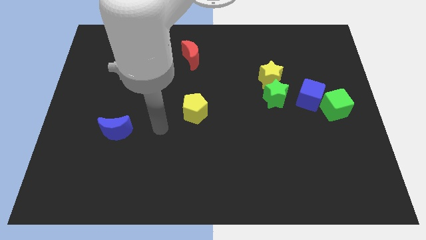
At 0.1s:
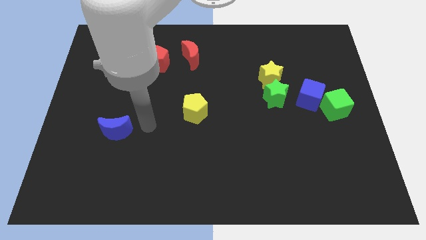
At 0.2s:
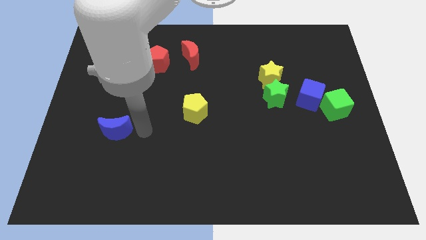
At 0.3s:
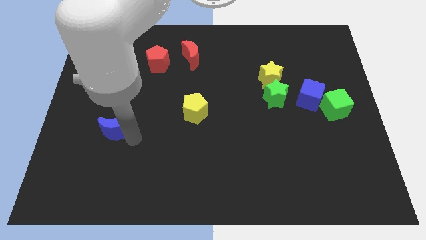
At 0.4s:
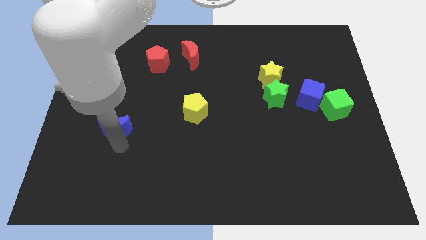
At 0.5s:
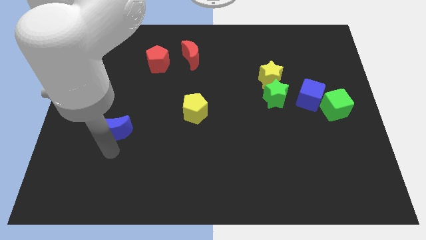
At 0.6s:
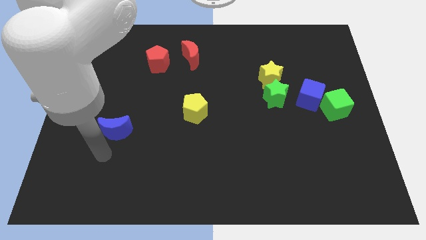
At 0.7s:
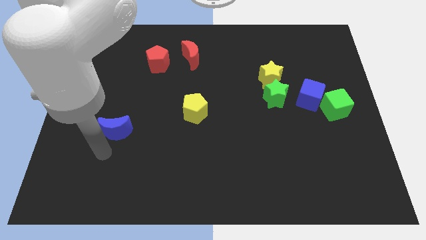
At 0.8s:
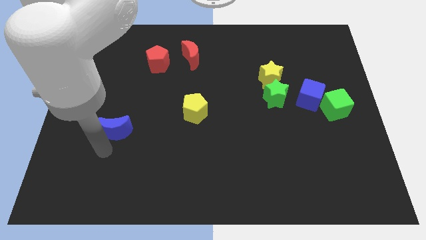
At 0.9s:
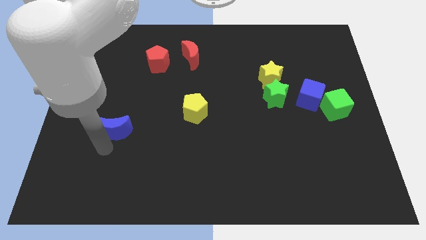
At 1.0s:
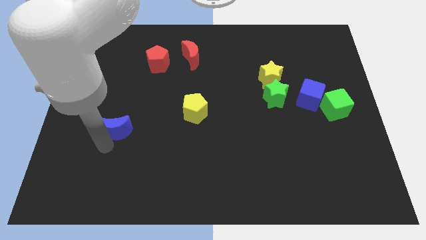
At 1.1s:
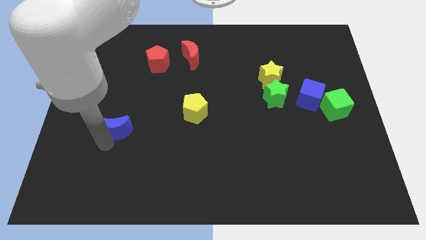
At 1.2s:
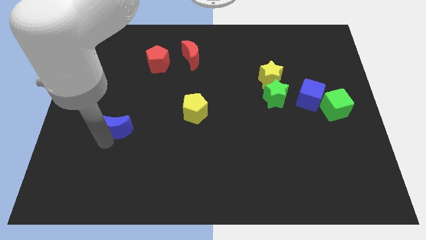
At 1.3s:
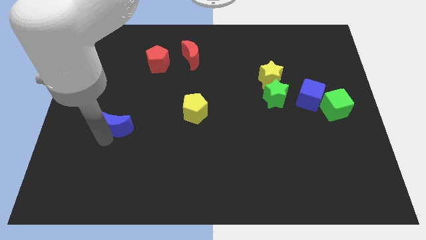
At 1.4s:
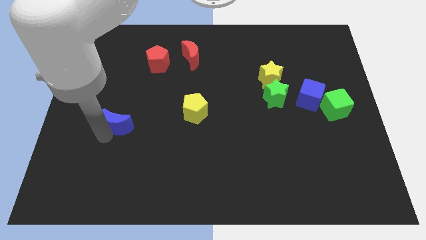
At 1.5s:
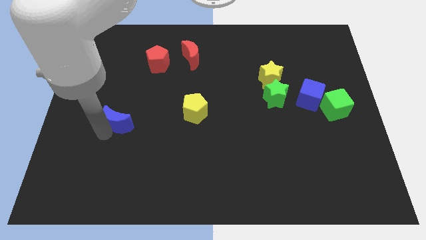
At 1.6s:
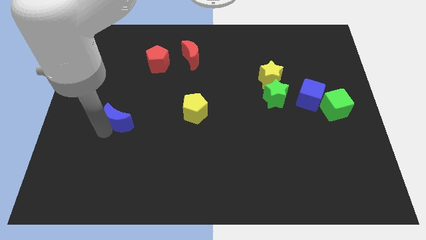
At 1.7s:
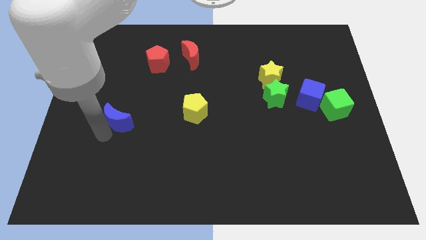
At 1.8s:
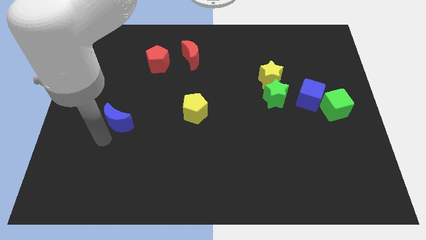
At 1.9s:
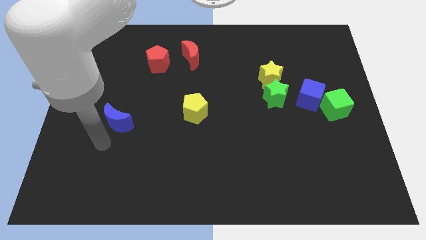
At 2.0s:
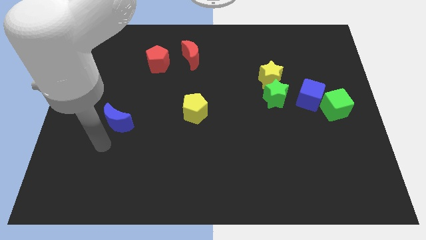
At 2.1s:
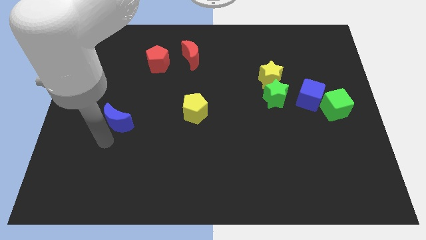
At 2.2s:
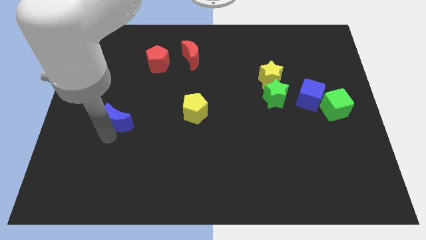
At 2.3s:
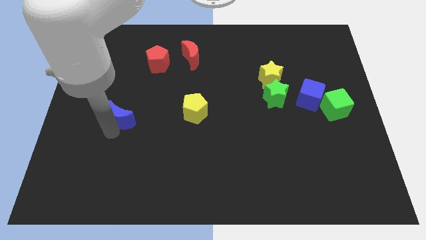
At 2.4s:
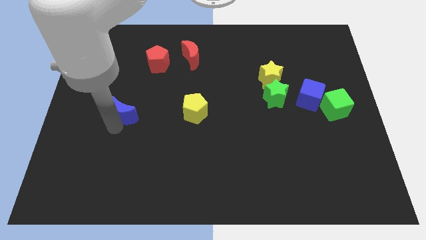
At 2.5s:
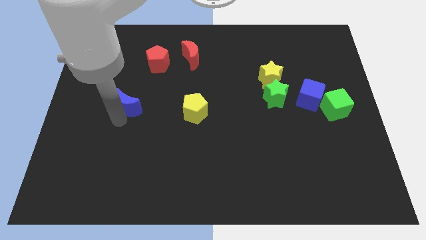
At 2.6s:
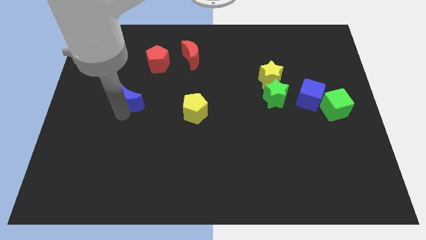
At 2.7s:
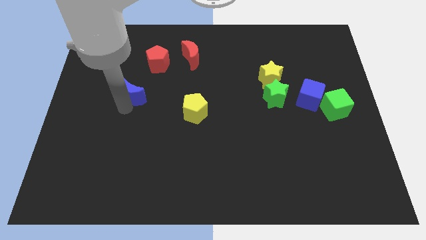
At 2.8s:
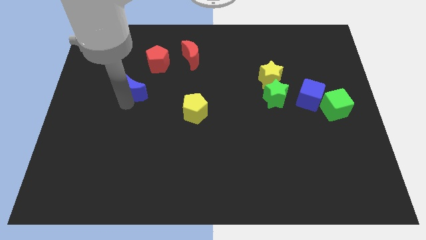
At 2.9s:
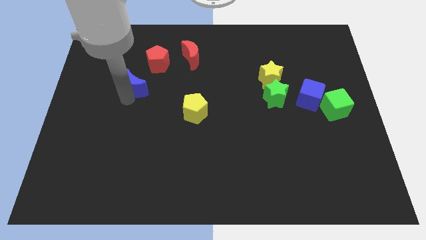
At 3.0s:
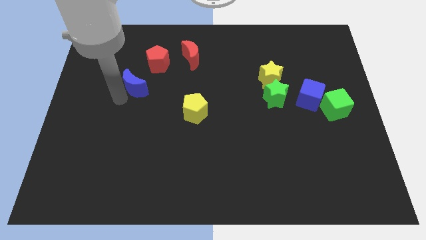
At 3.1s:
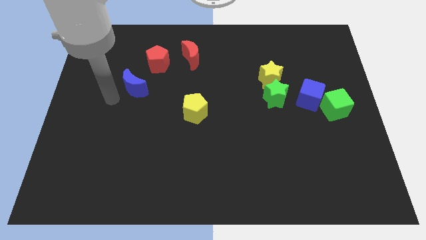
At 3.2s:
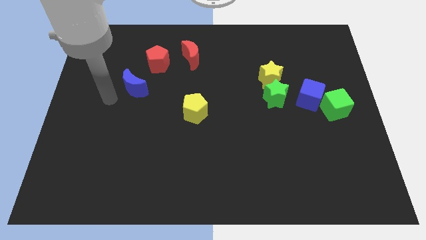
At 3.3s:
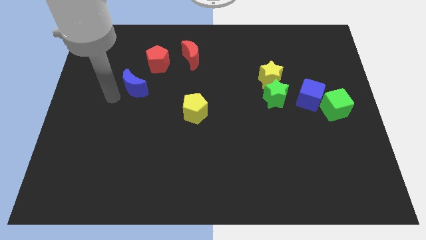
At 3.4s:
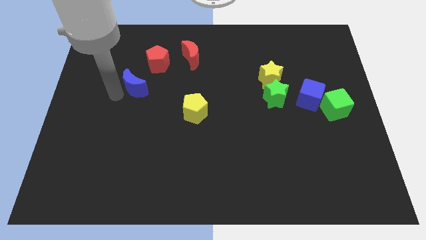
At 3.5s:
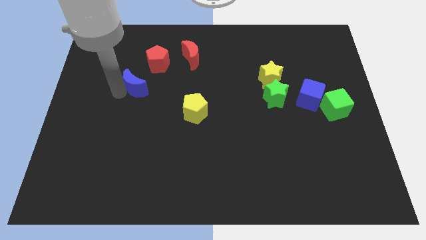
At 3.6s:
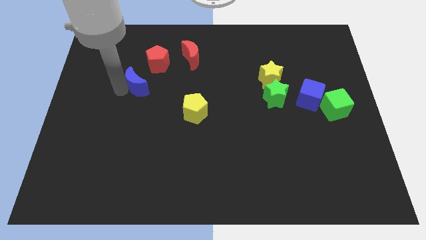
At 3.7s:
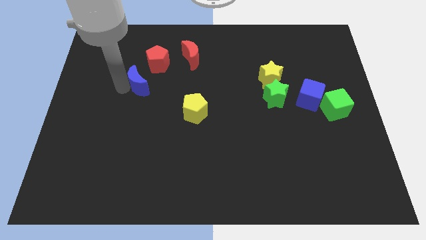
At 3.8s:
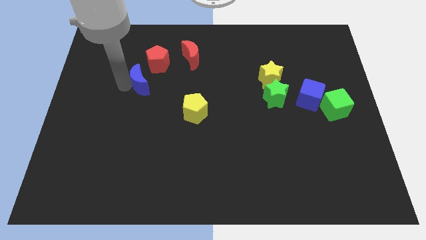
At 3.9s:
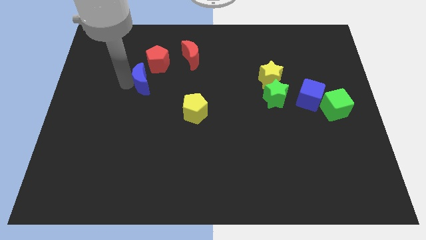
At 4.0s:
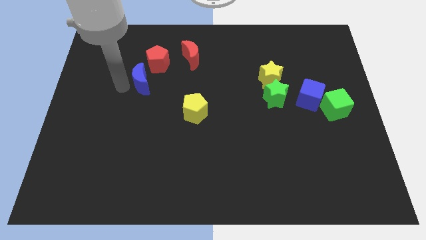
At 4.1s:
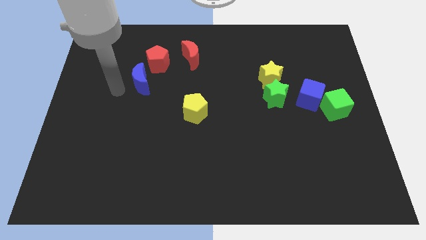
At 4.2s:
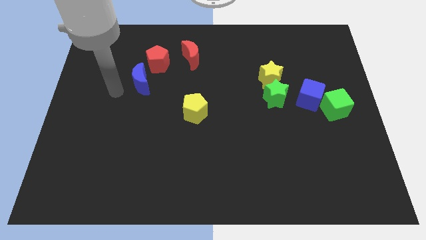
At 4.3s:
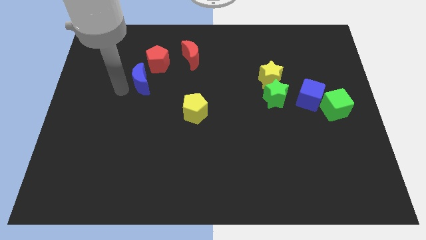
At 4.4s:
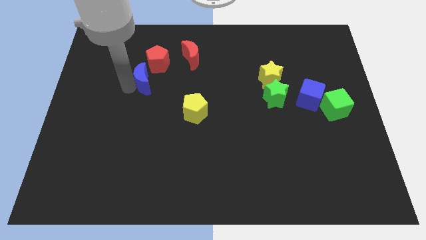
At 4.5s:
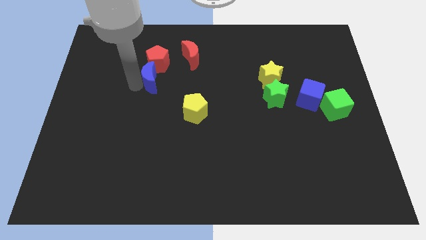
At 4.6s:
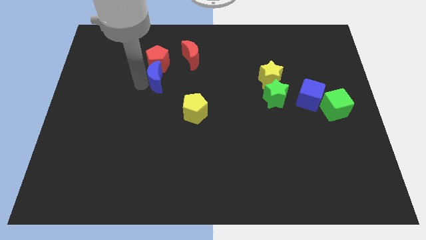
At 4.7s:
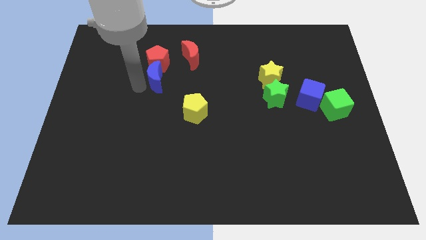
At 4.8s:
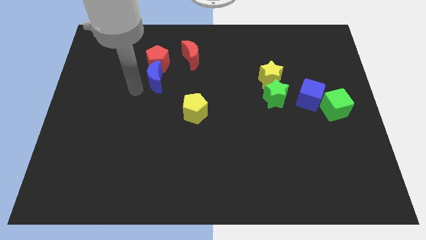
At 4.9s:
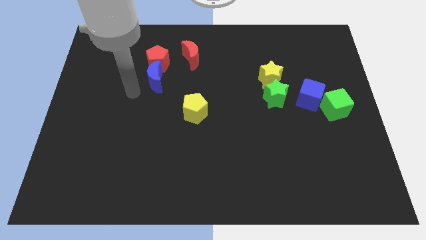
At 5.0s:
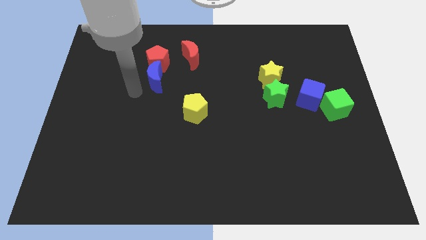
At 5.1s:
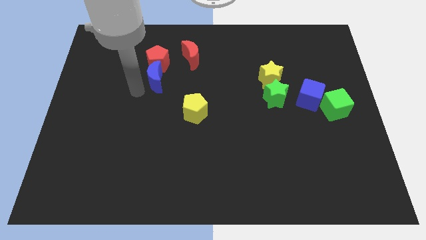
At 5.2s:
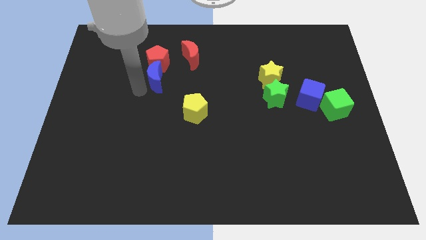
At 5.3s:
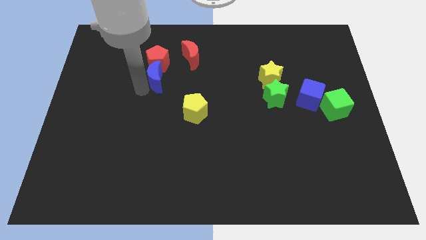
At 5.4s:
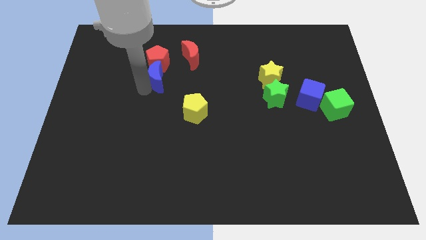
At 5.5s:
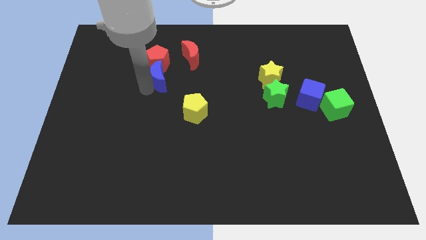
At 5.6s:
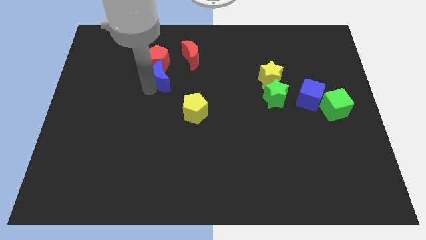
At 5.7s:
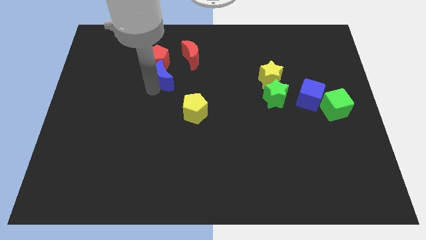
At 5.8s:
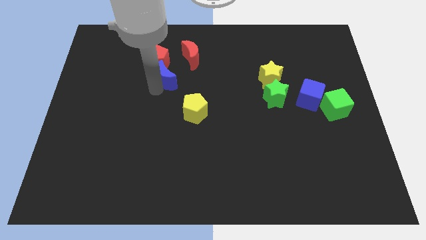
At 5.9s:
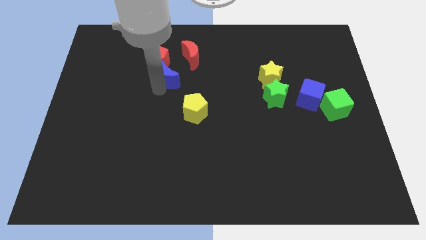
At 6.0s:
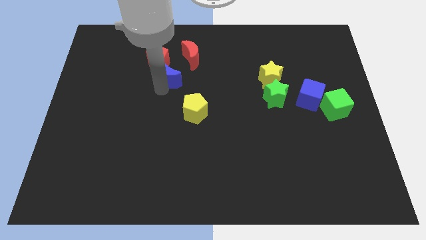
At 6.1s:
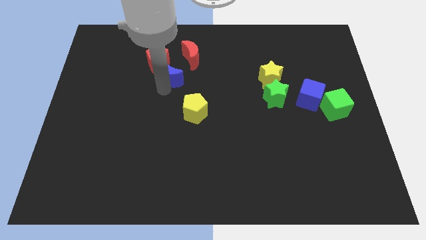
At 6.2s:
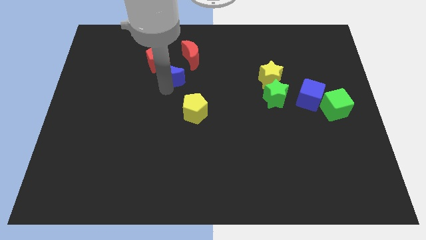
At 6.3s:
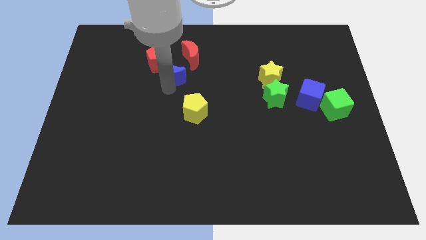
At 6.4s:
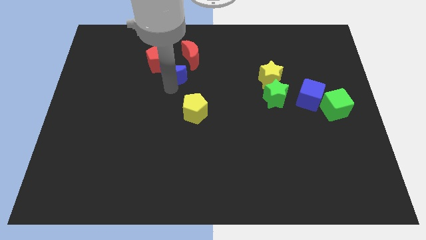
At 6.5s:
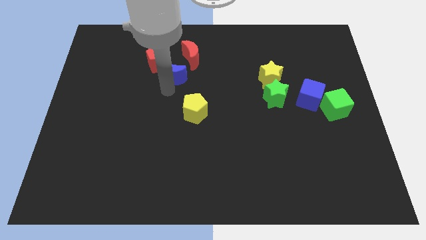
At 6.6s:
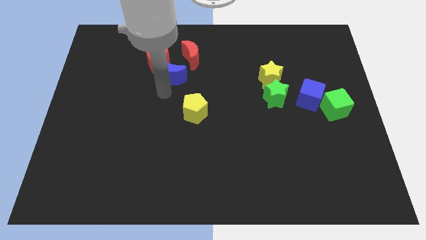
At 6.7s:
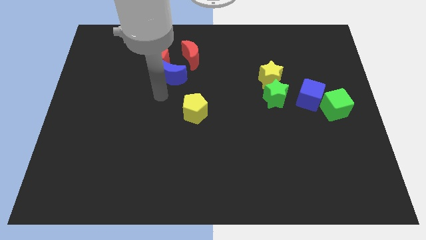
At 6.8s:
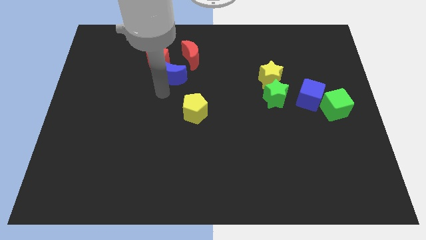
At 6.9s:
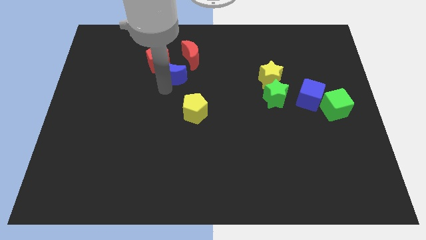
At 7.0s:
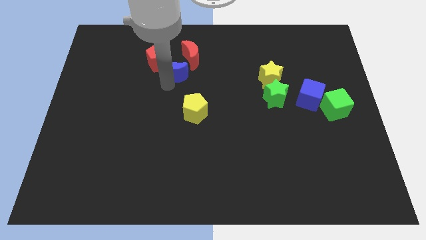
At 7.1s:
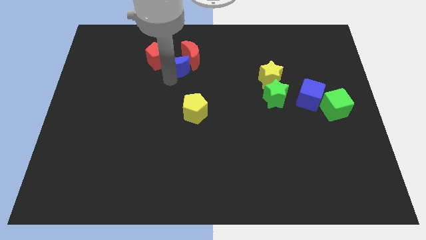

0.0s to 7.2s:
slide the blue moon towards the red moon

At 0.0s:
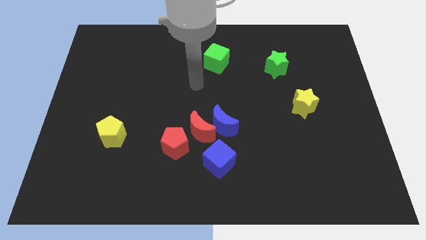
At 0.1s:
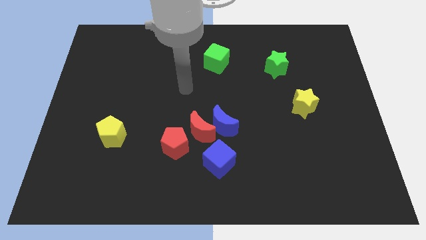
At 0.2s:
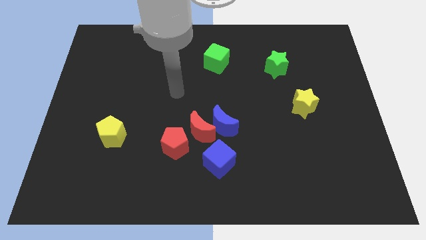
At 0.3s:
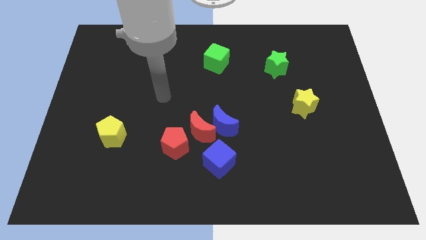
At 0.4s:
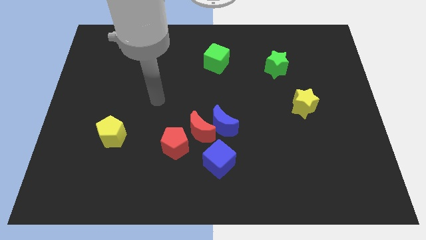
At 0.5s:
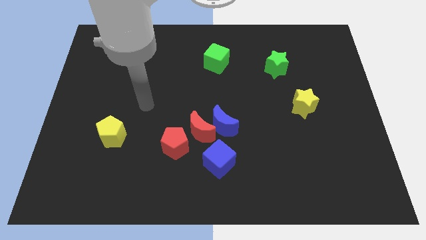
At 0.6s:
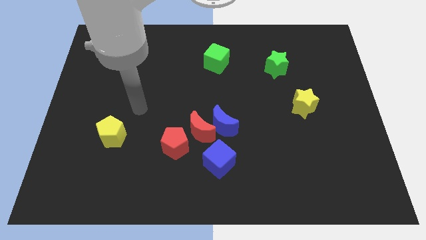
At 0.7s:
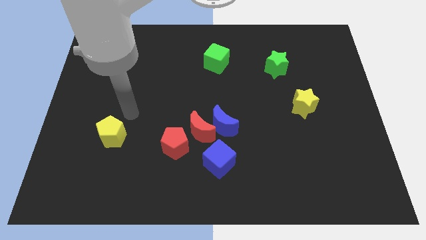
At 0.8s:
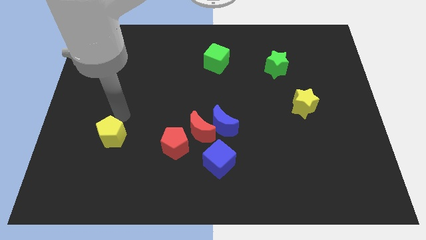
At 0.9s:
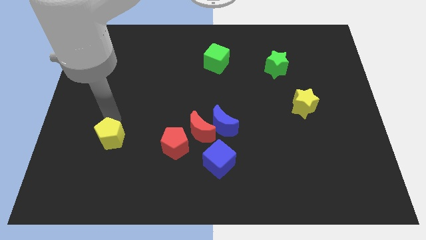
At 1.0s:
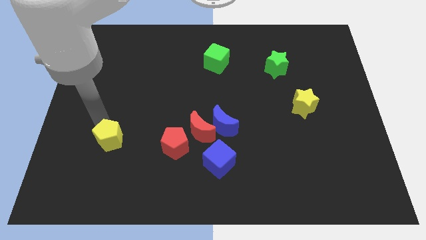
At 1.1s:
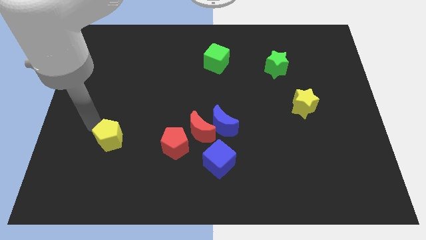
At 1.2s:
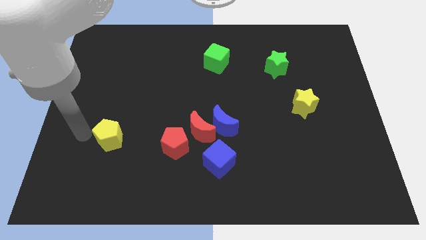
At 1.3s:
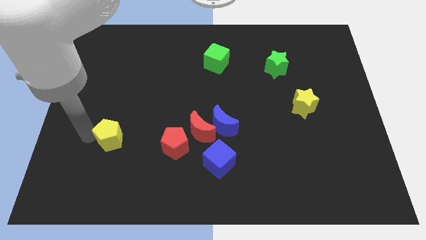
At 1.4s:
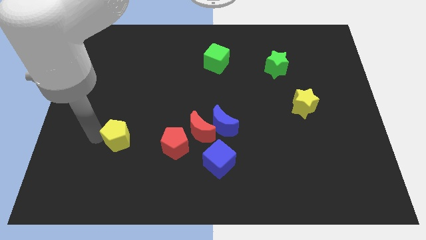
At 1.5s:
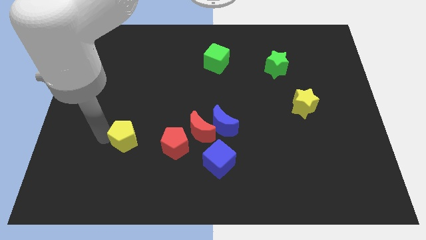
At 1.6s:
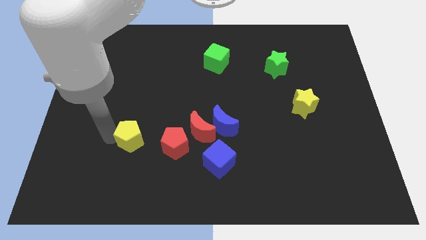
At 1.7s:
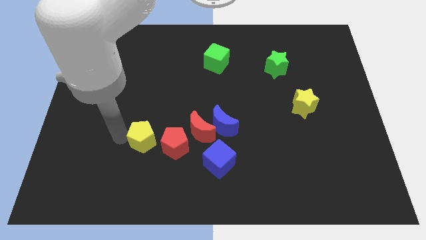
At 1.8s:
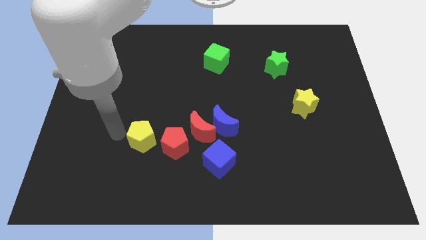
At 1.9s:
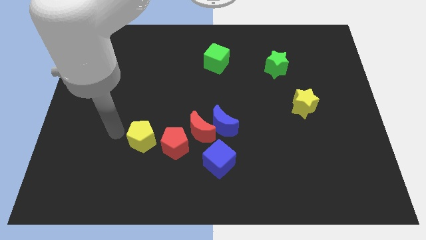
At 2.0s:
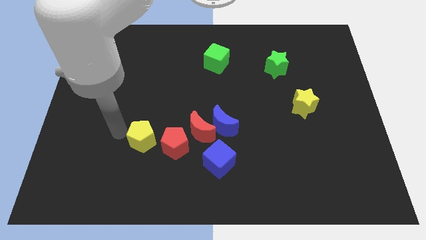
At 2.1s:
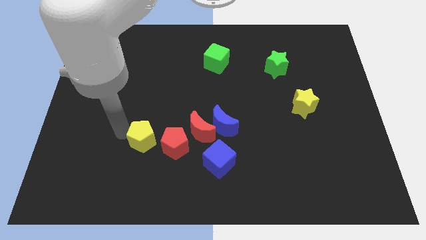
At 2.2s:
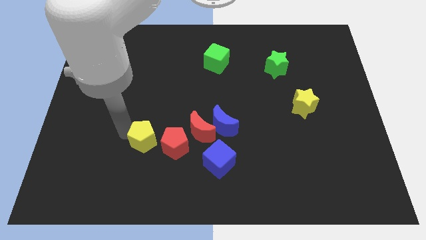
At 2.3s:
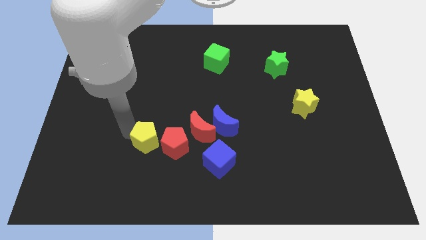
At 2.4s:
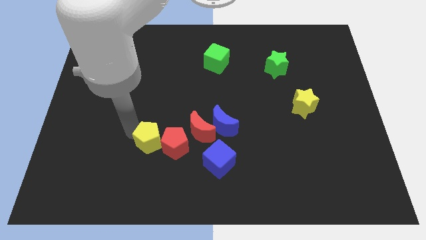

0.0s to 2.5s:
put the yellow pentagon to the red pentagon
